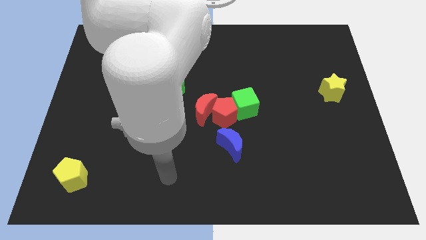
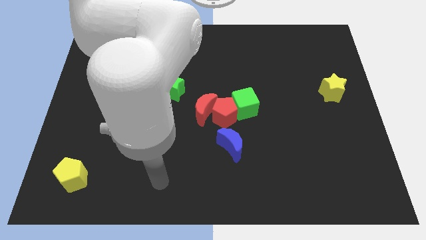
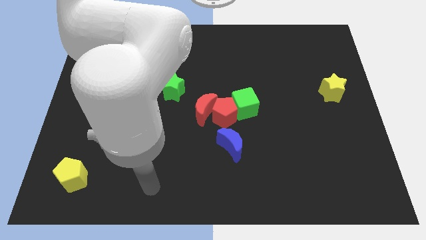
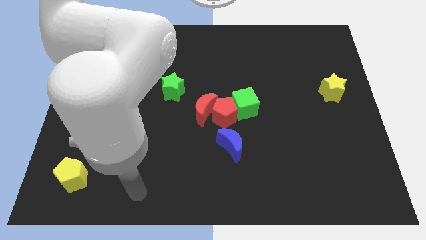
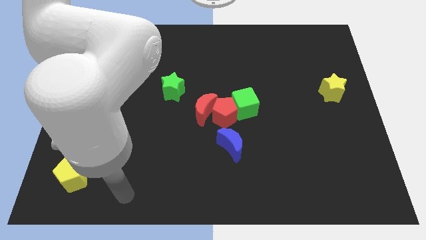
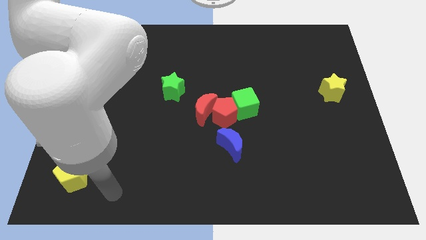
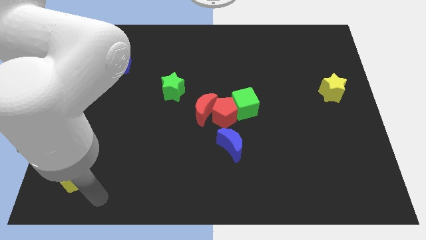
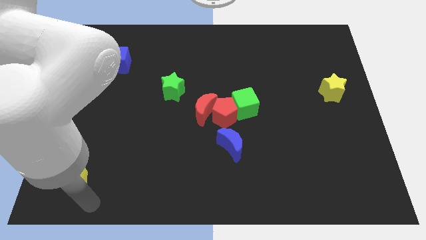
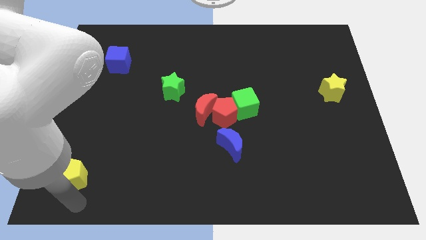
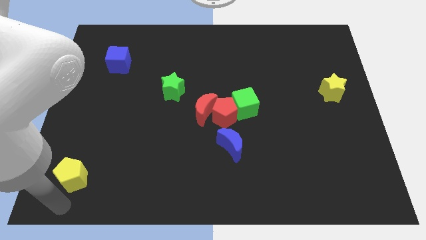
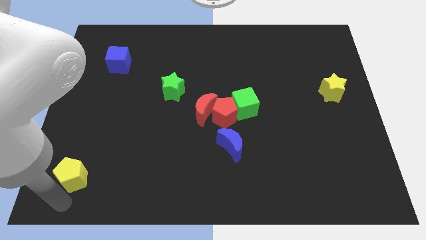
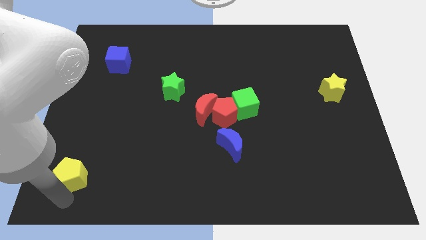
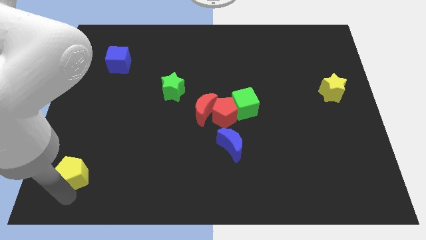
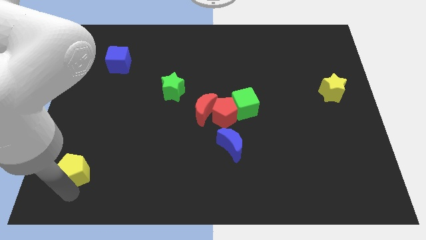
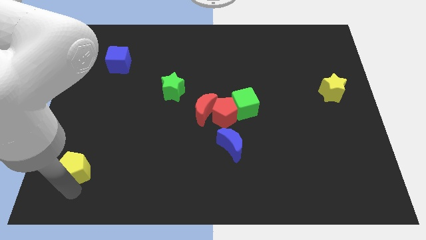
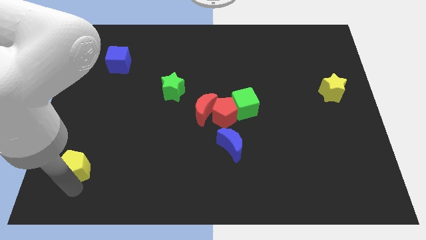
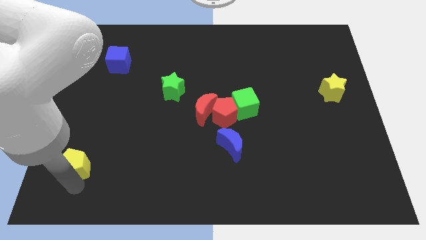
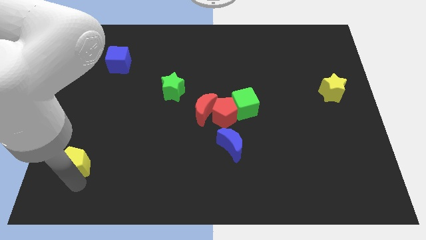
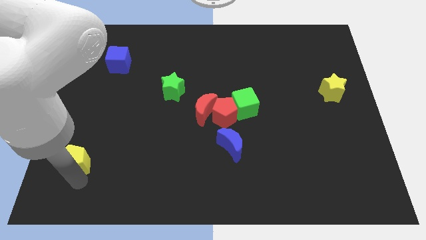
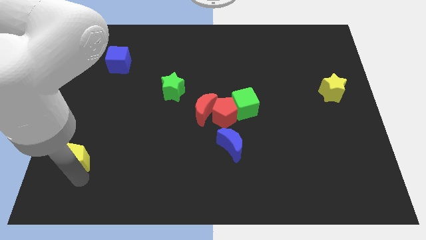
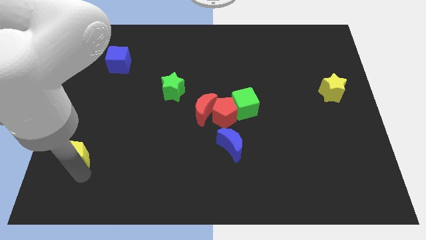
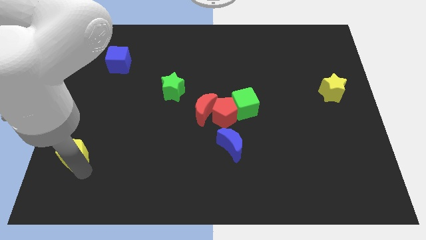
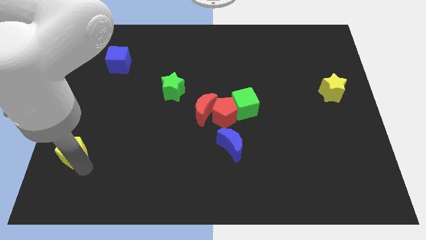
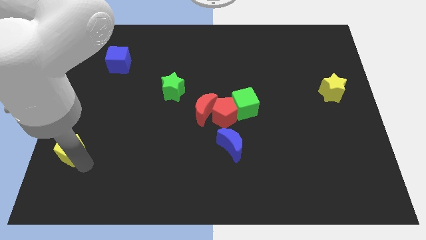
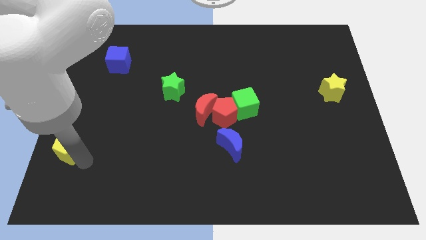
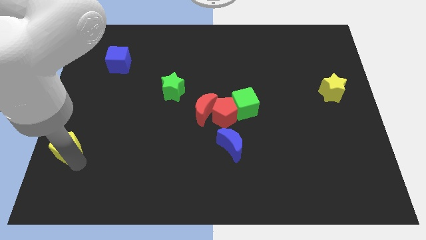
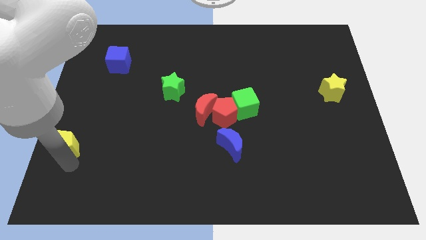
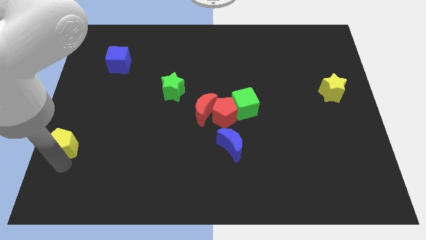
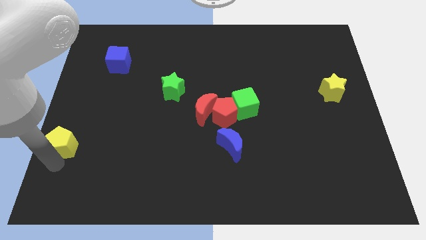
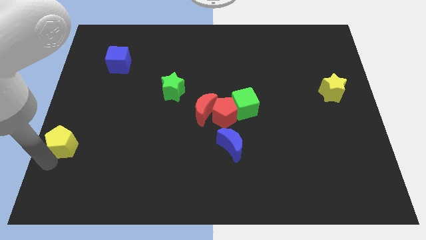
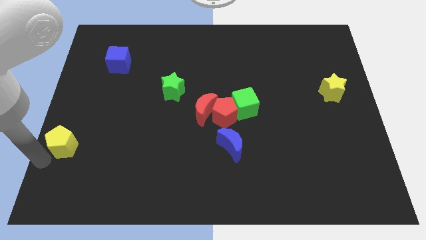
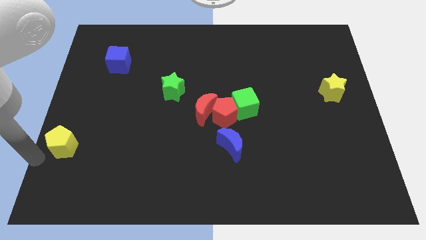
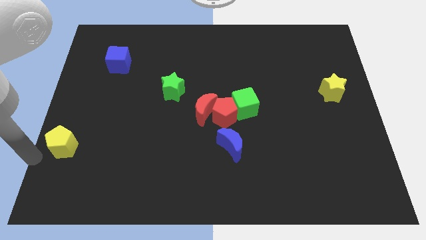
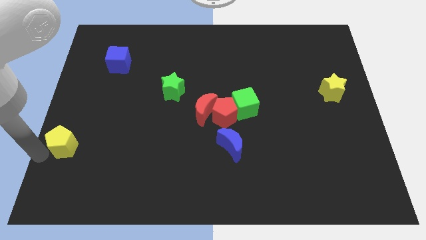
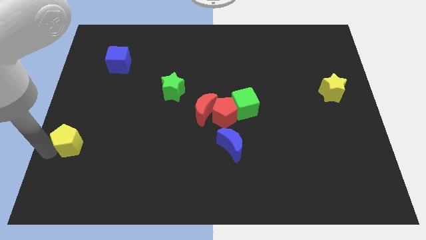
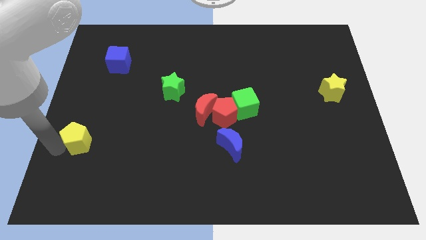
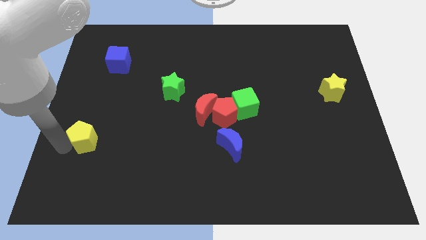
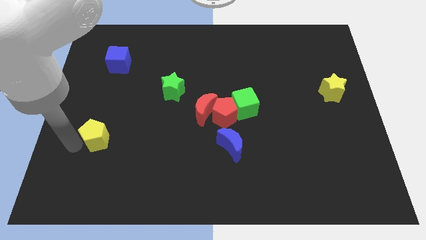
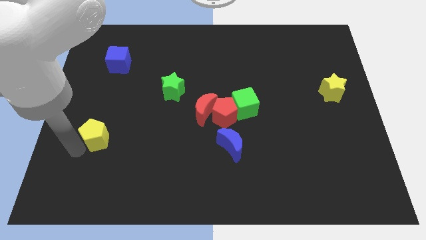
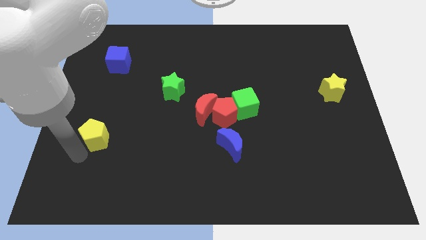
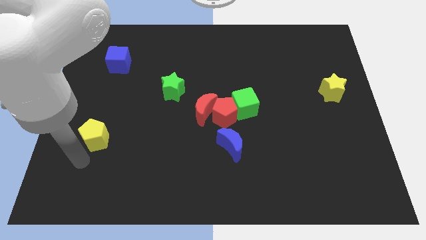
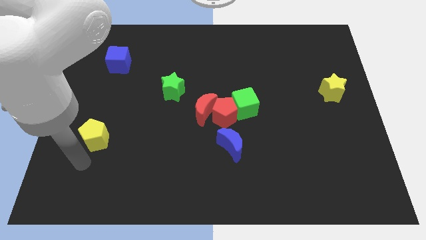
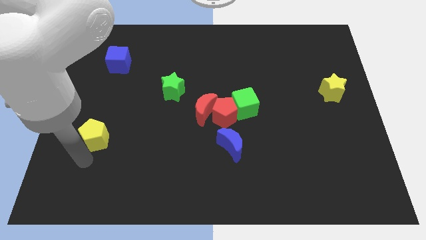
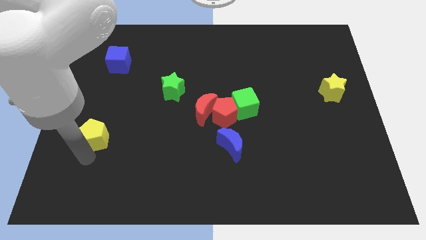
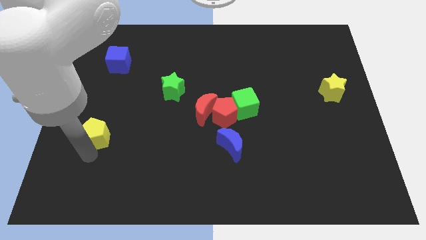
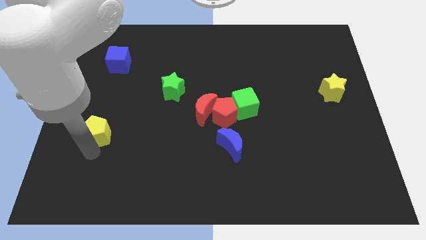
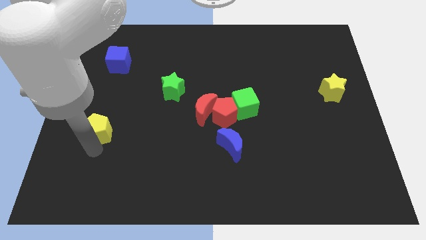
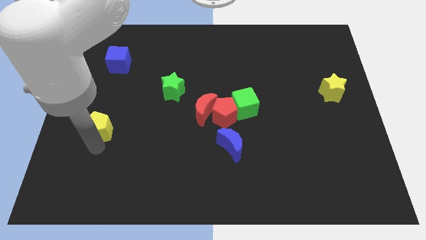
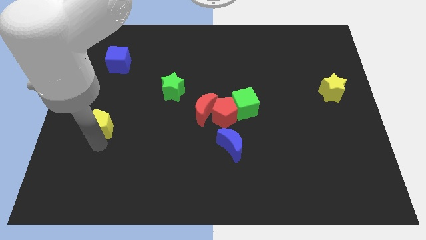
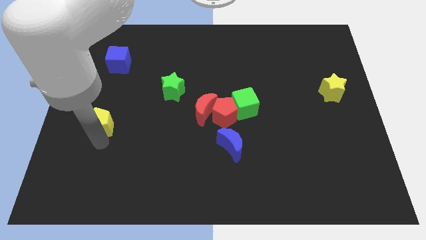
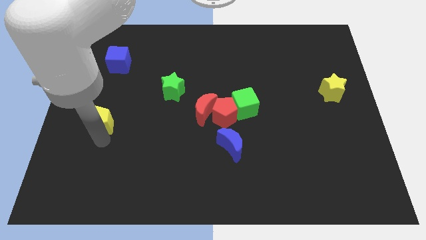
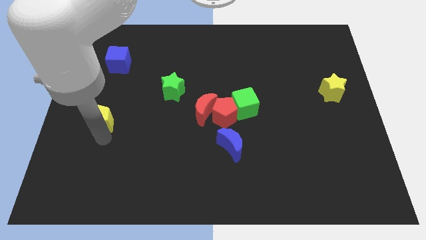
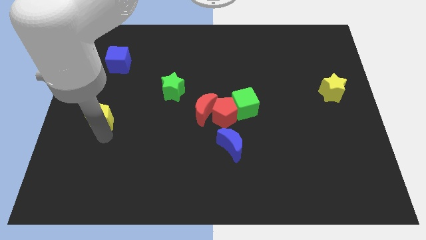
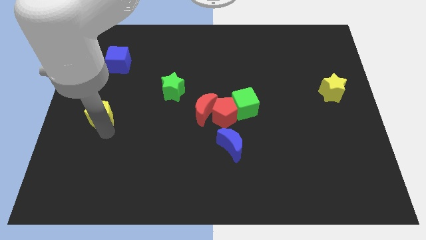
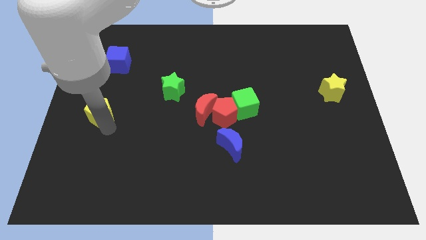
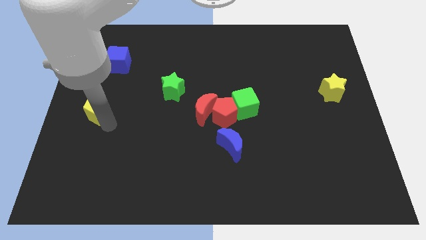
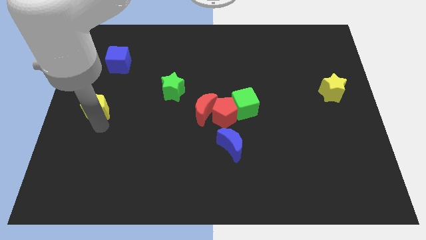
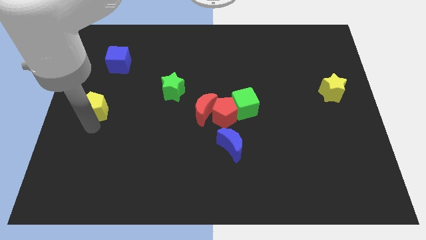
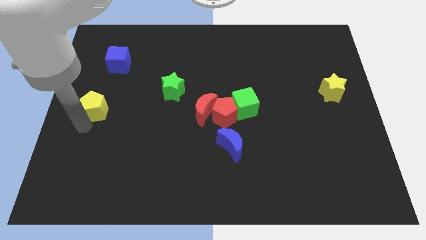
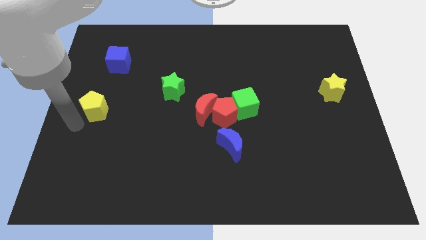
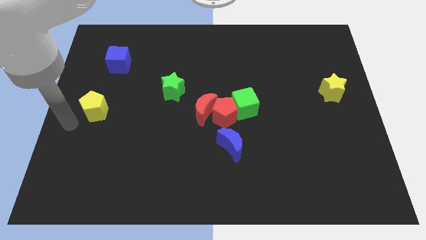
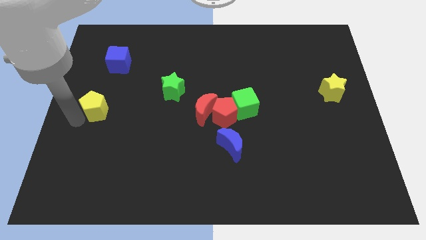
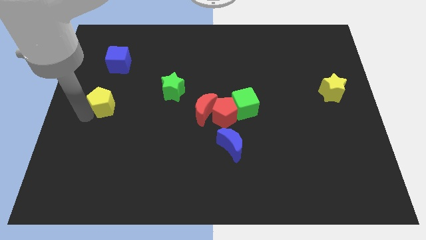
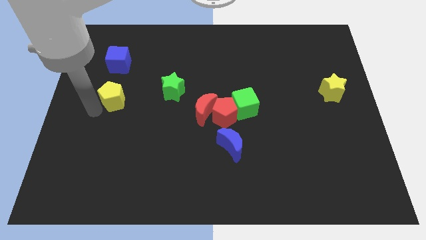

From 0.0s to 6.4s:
move the yellow pentagon to the left of the green star

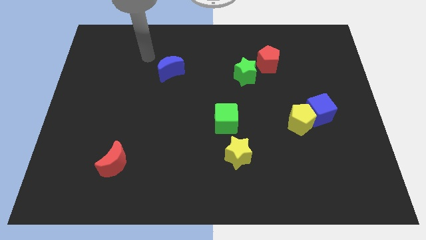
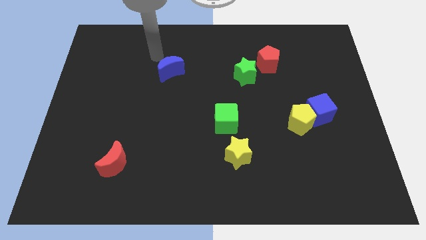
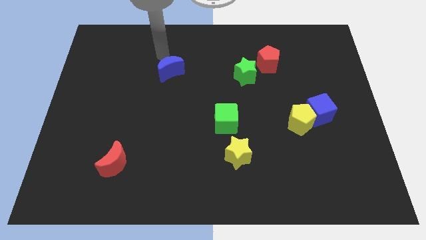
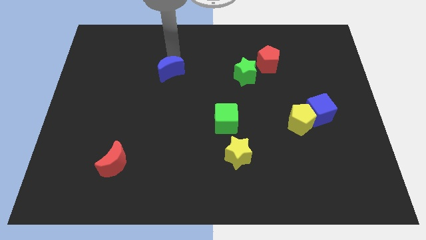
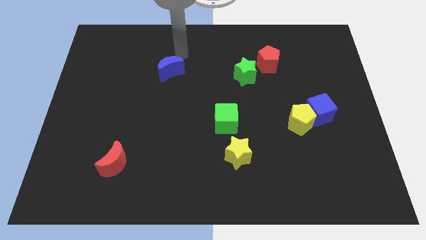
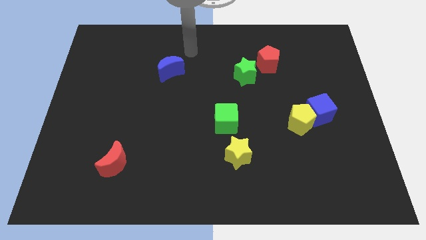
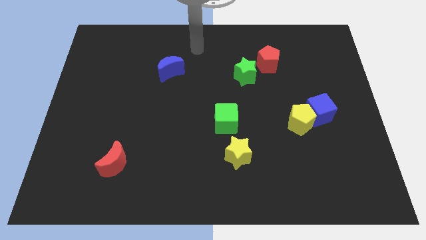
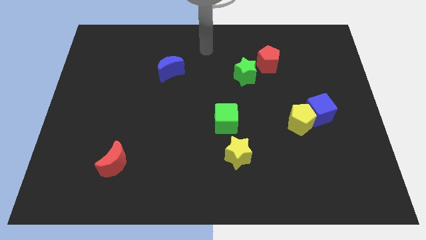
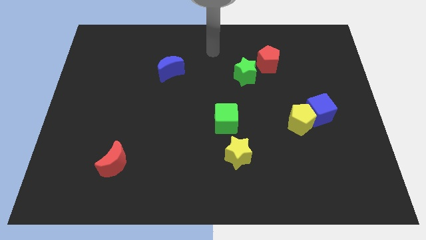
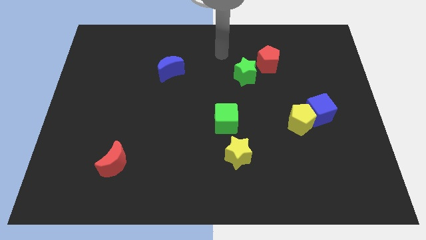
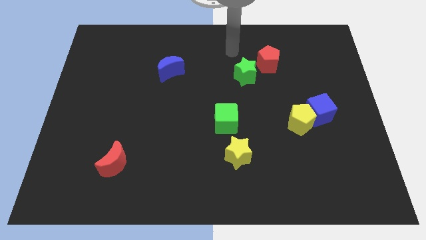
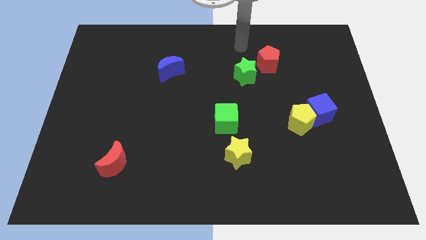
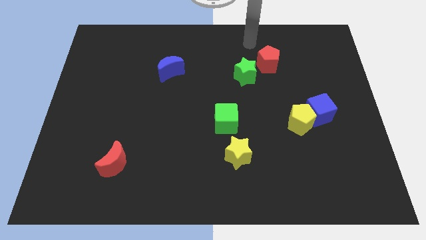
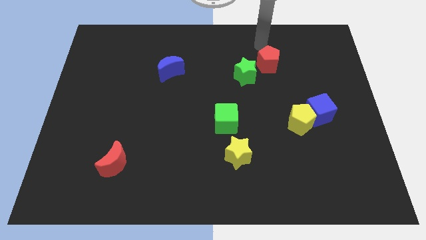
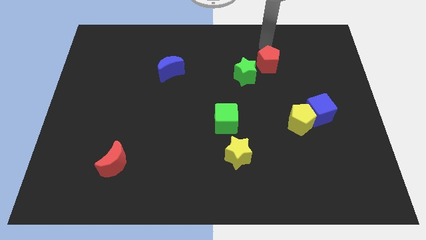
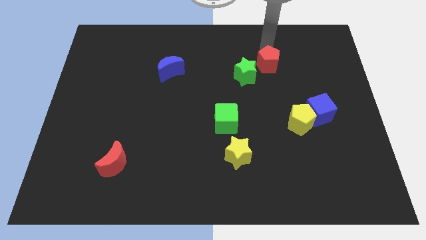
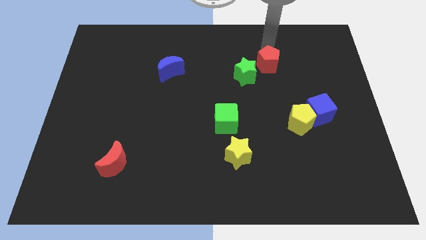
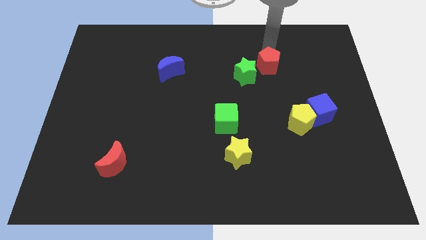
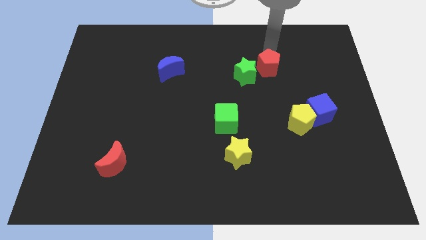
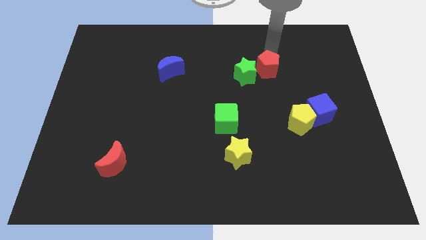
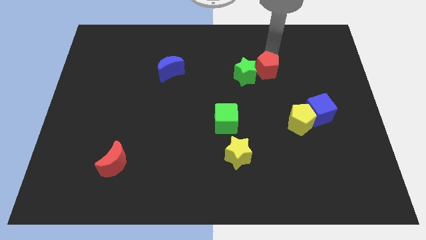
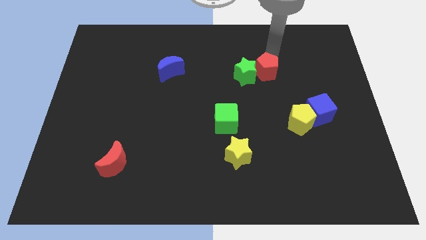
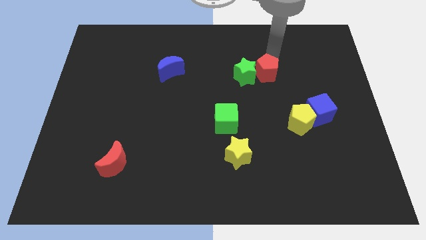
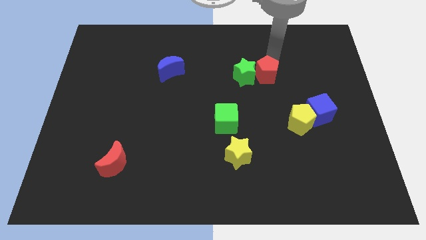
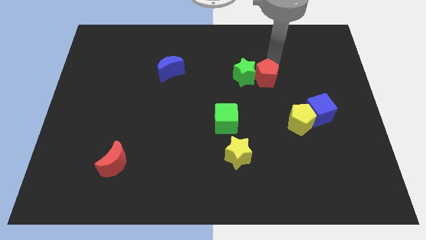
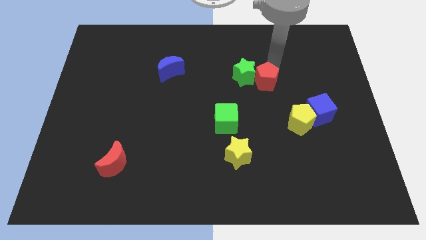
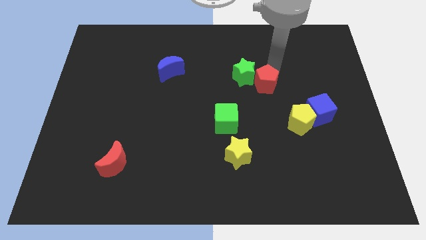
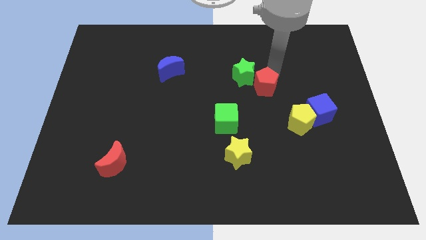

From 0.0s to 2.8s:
put the red pentagon below the green star
